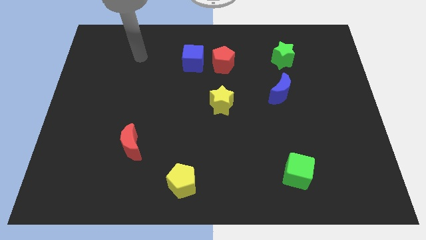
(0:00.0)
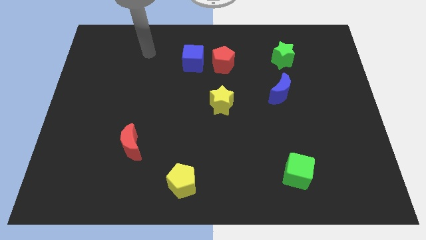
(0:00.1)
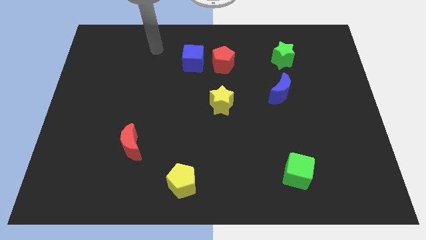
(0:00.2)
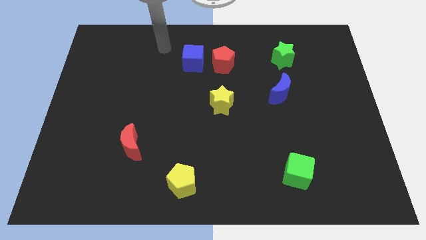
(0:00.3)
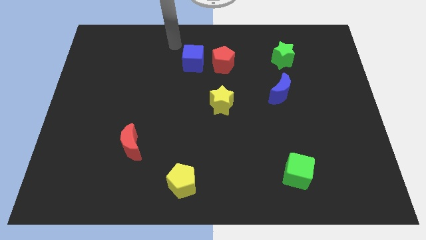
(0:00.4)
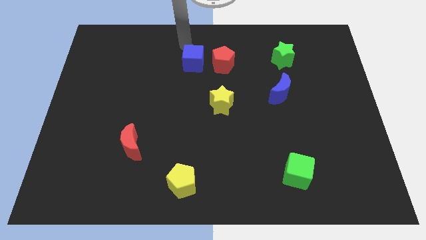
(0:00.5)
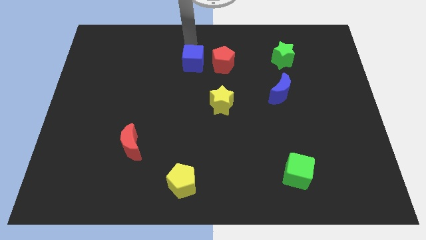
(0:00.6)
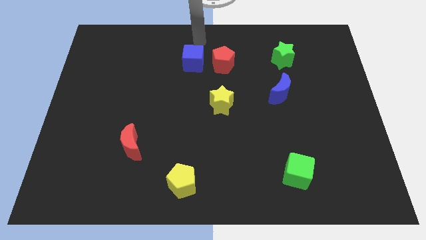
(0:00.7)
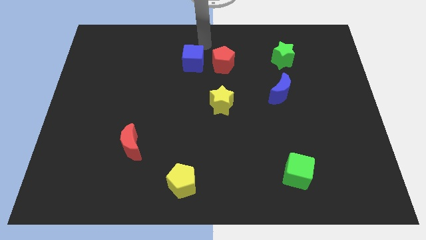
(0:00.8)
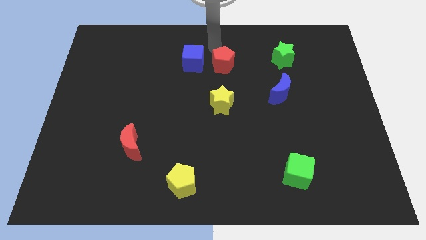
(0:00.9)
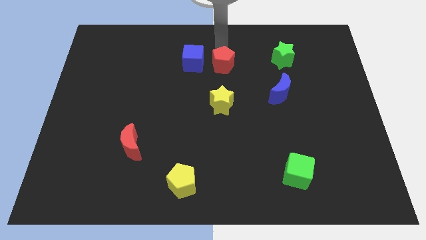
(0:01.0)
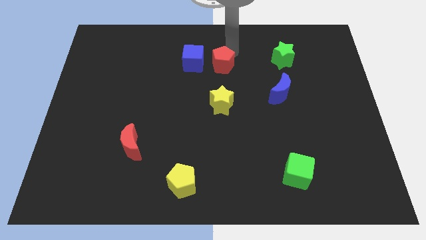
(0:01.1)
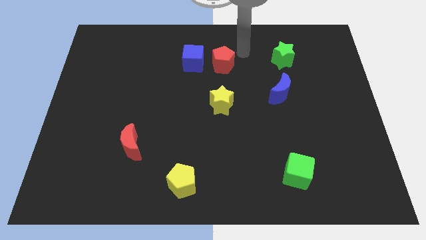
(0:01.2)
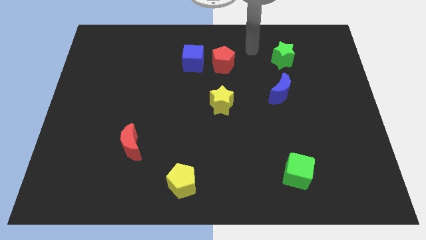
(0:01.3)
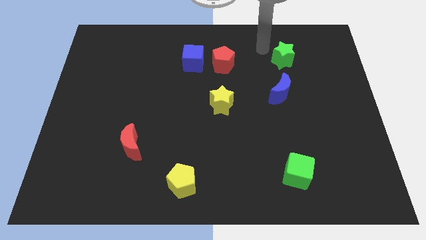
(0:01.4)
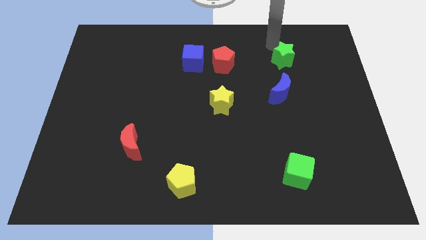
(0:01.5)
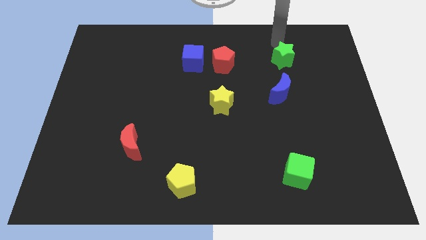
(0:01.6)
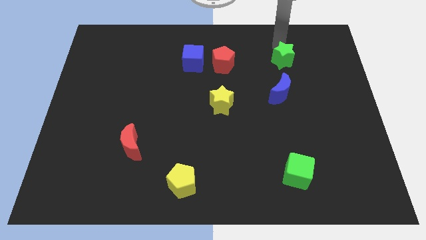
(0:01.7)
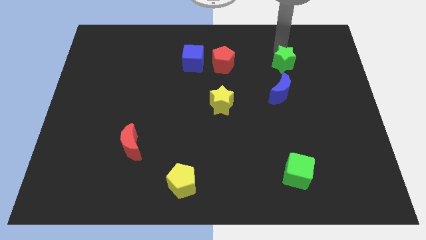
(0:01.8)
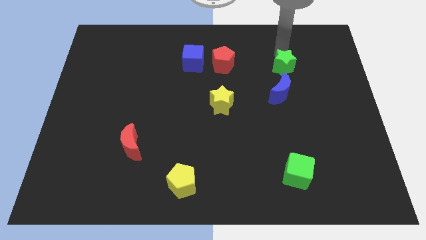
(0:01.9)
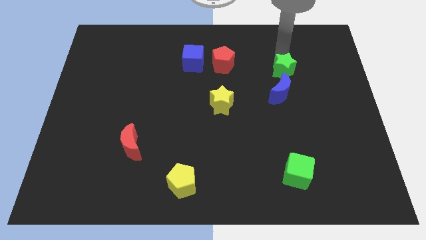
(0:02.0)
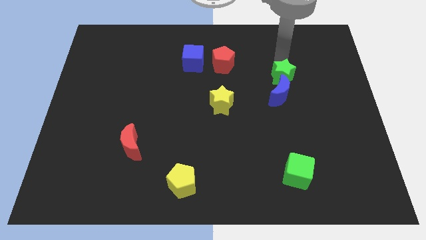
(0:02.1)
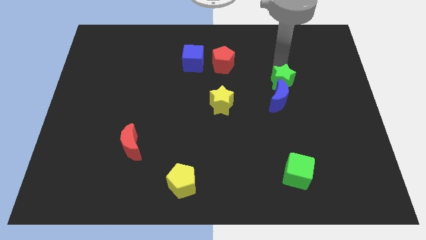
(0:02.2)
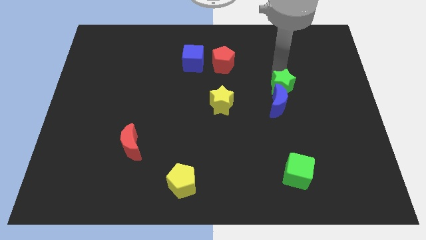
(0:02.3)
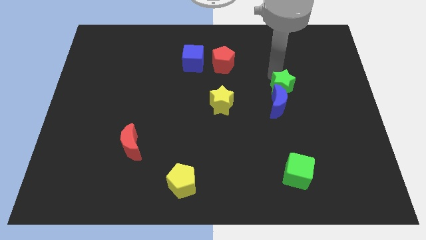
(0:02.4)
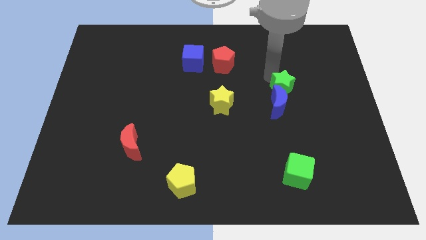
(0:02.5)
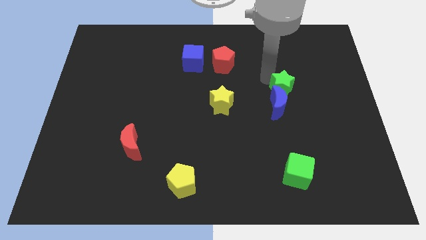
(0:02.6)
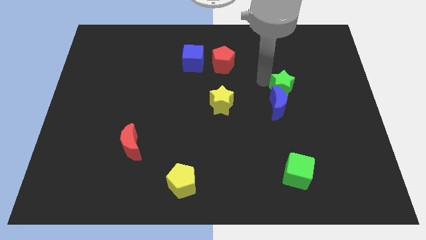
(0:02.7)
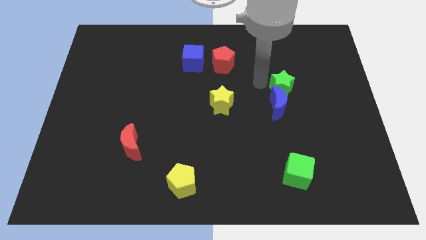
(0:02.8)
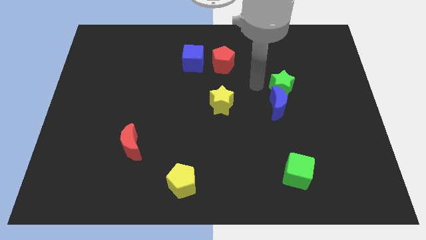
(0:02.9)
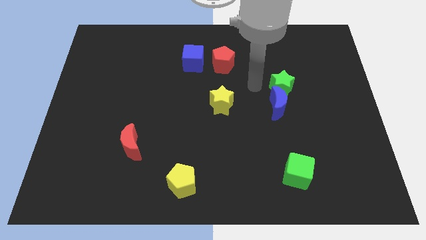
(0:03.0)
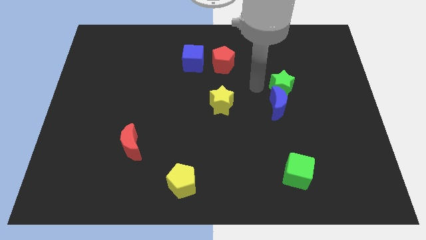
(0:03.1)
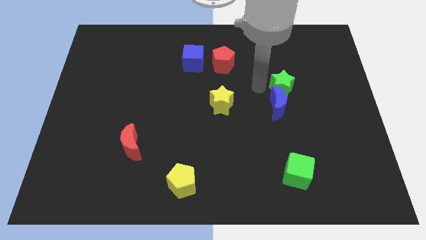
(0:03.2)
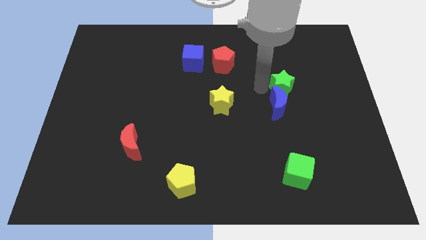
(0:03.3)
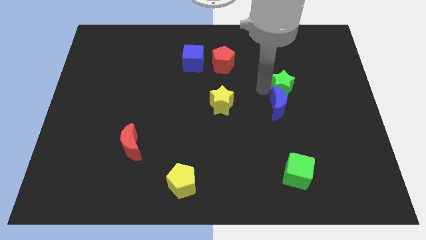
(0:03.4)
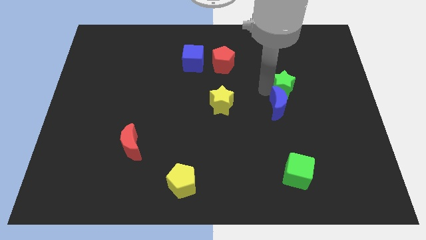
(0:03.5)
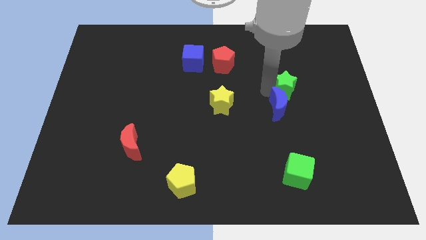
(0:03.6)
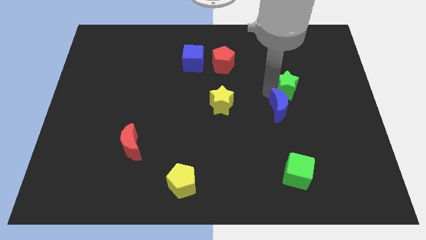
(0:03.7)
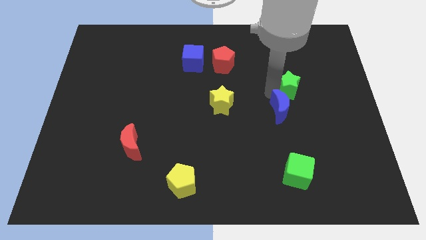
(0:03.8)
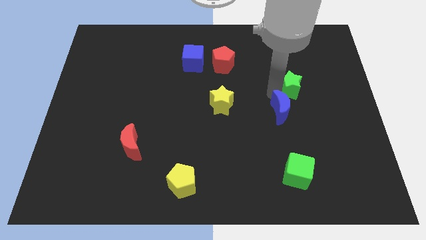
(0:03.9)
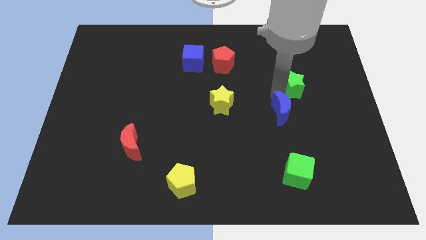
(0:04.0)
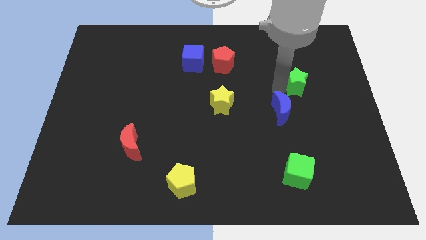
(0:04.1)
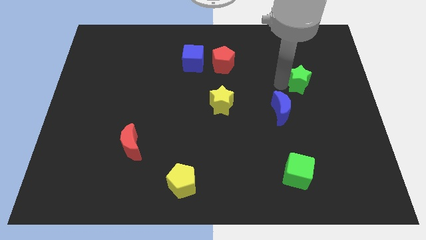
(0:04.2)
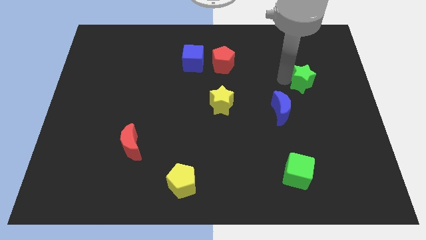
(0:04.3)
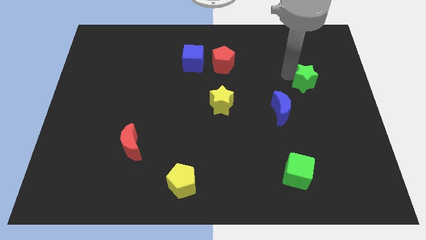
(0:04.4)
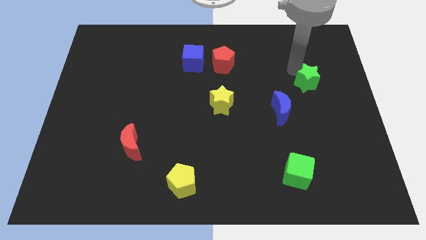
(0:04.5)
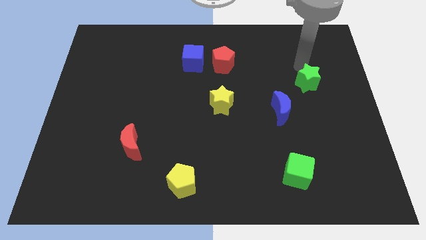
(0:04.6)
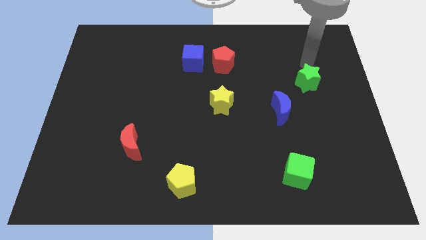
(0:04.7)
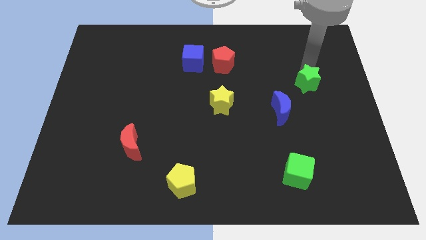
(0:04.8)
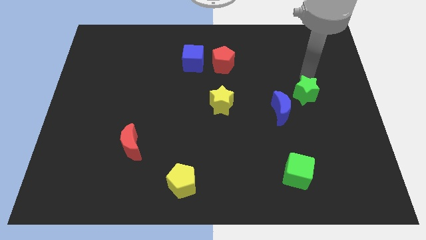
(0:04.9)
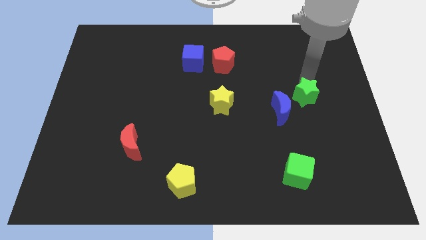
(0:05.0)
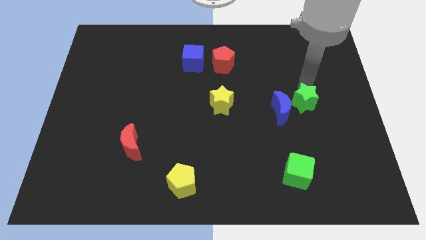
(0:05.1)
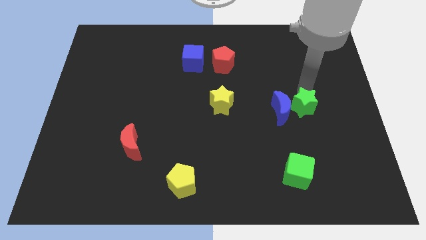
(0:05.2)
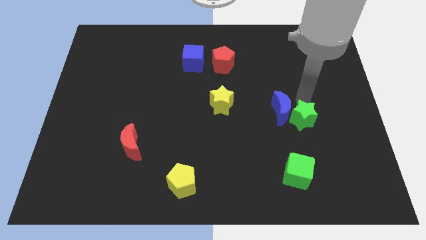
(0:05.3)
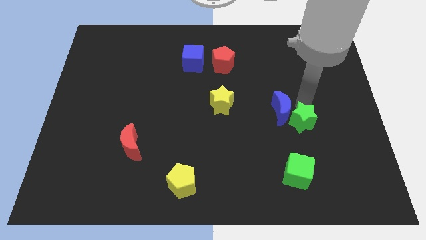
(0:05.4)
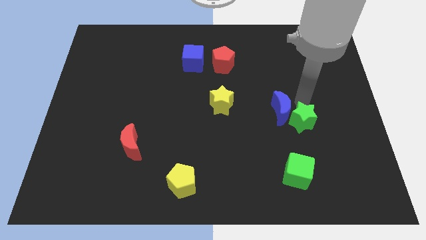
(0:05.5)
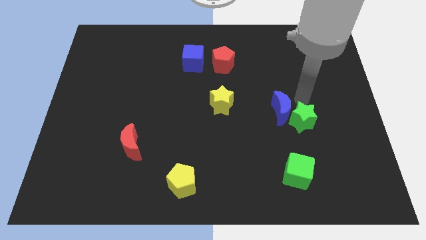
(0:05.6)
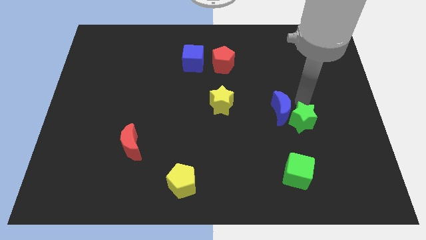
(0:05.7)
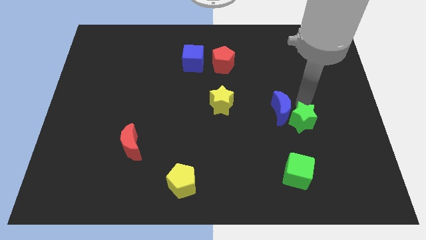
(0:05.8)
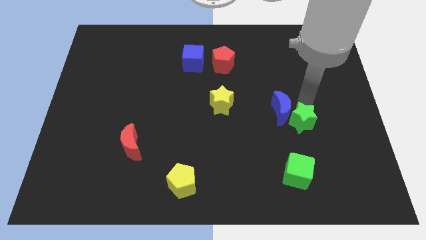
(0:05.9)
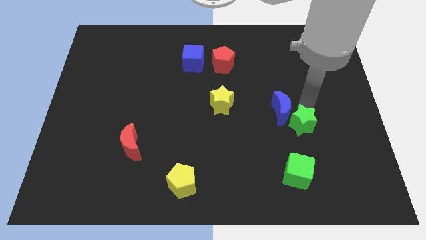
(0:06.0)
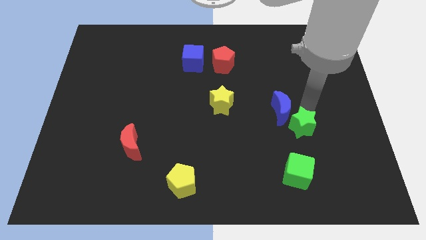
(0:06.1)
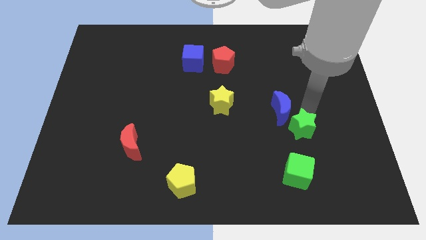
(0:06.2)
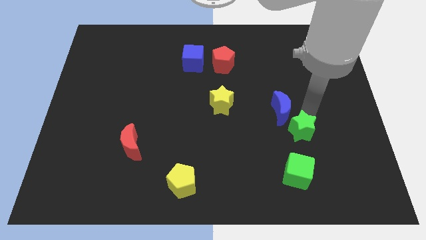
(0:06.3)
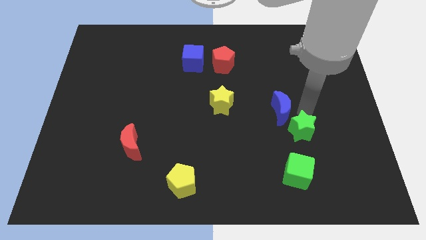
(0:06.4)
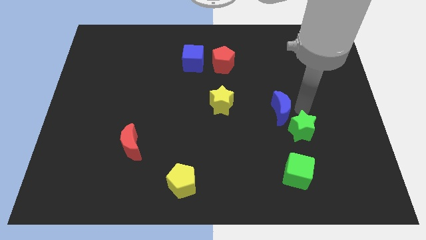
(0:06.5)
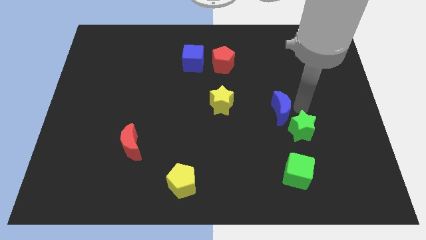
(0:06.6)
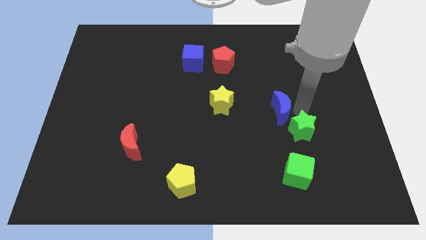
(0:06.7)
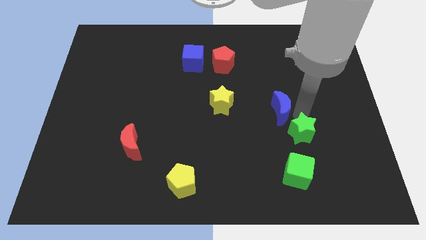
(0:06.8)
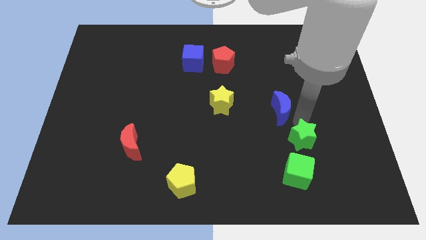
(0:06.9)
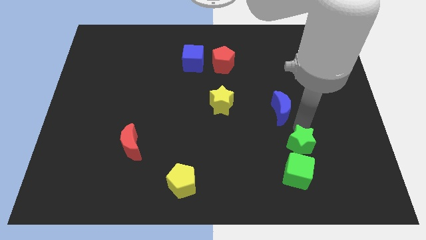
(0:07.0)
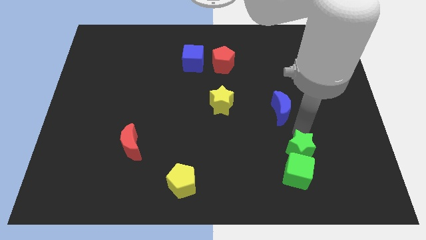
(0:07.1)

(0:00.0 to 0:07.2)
put the green star towards the green cube

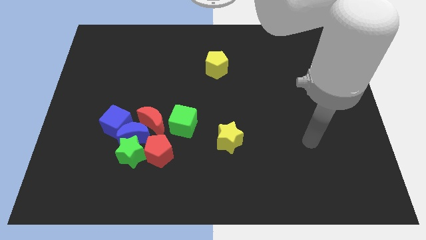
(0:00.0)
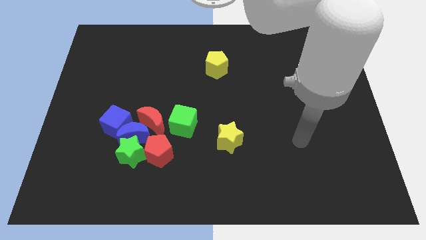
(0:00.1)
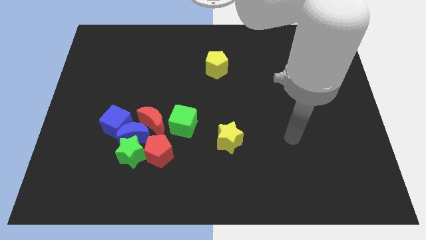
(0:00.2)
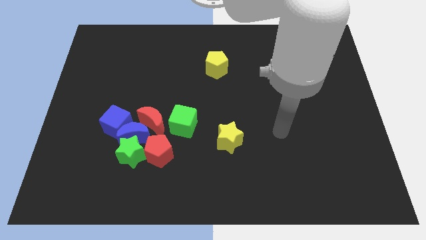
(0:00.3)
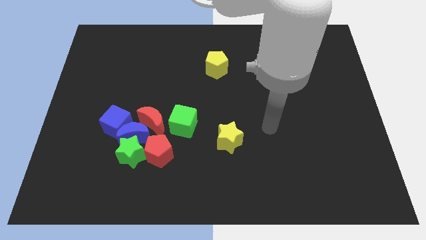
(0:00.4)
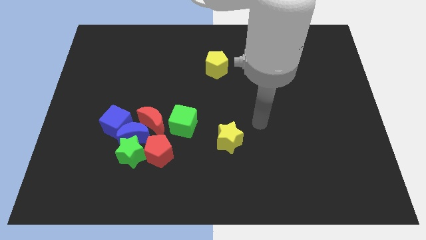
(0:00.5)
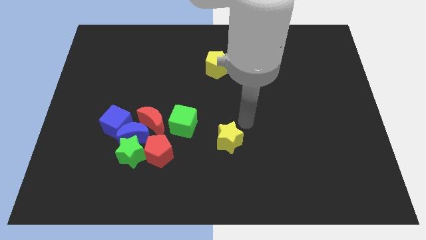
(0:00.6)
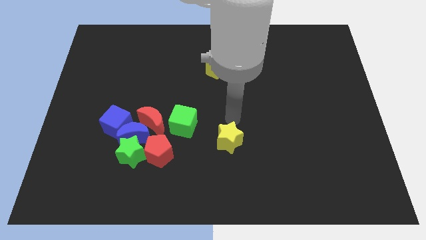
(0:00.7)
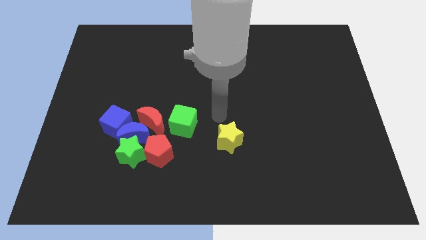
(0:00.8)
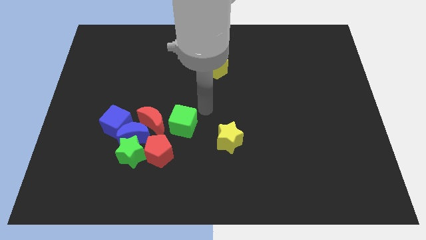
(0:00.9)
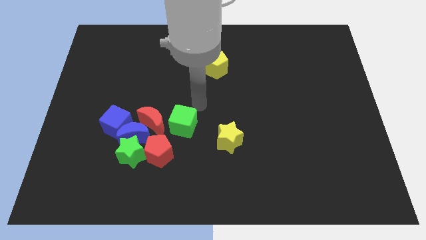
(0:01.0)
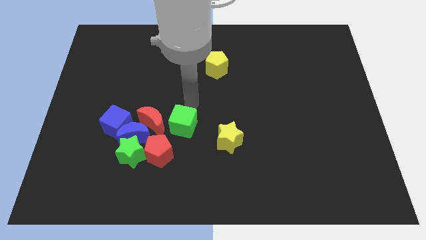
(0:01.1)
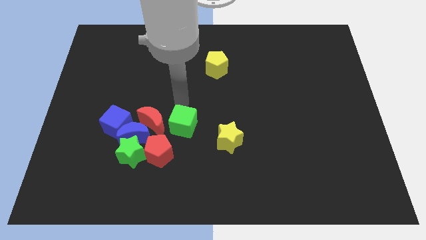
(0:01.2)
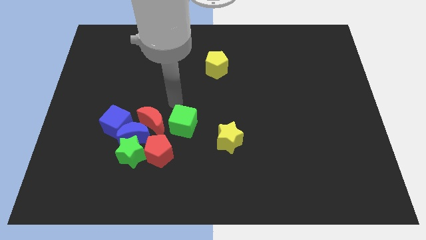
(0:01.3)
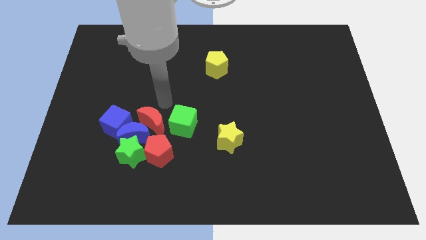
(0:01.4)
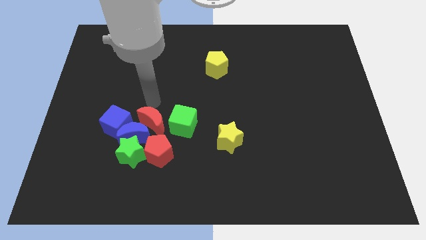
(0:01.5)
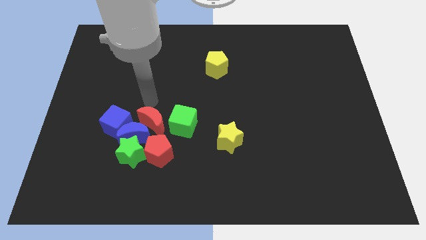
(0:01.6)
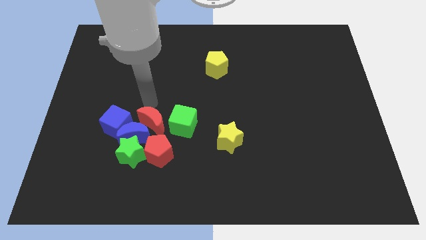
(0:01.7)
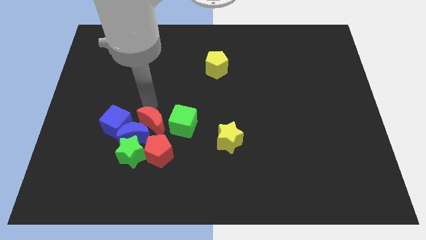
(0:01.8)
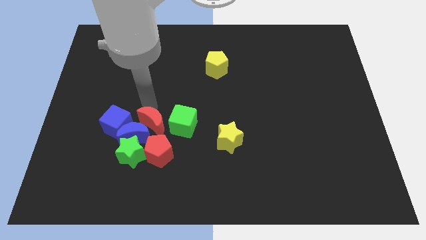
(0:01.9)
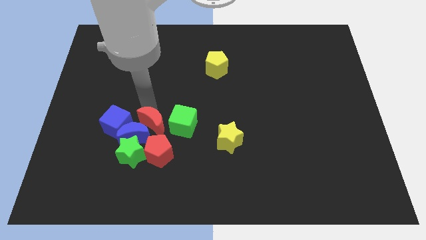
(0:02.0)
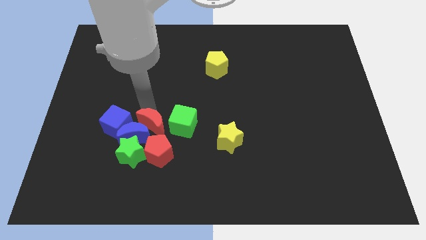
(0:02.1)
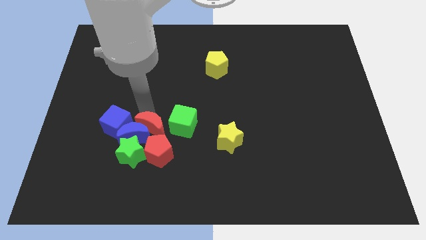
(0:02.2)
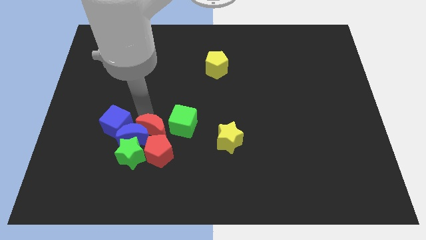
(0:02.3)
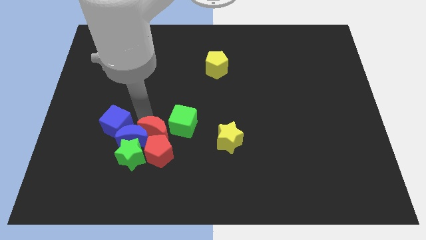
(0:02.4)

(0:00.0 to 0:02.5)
slide the red moon close to the red pentagon
